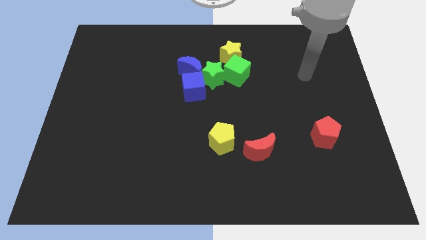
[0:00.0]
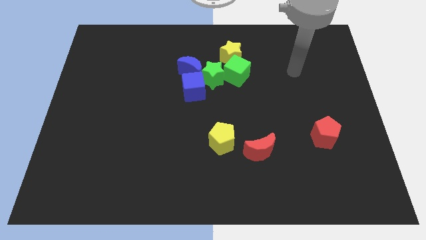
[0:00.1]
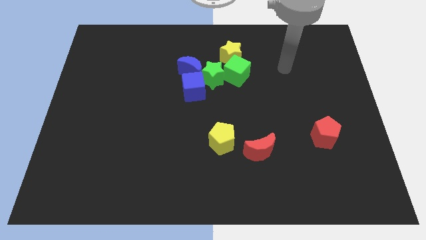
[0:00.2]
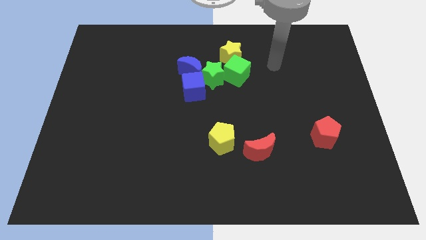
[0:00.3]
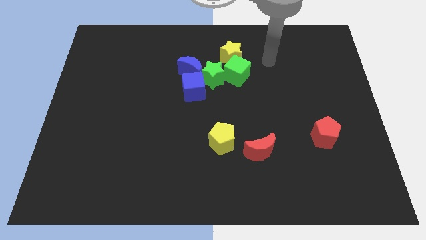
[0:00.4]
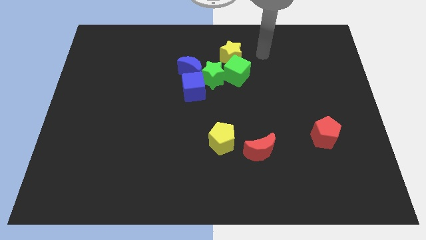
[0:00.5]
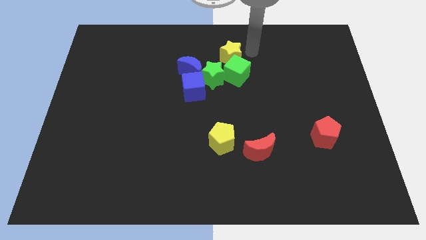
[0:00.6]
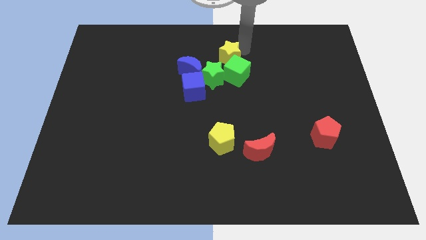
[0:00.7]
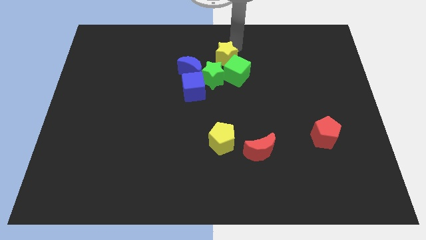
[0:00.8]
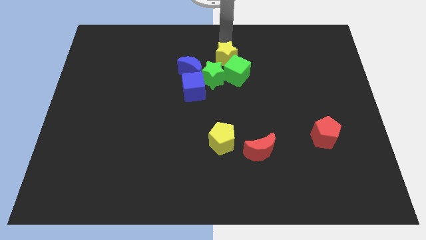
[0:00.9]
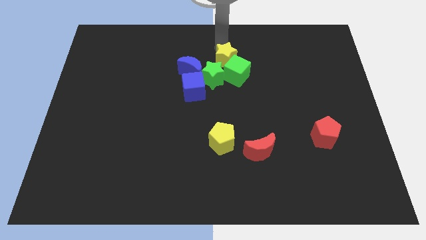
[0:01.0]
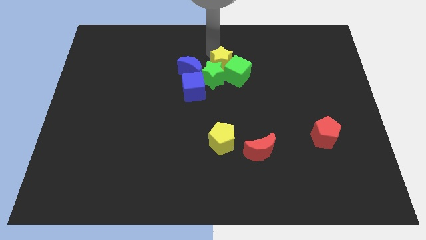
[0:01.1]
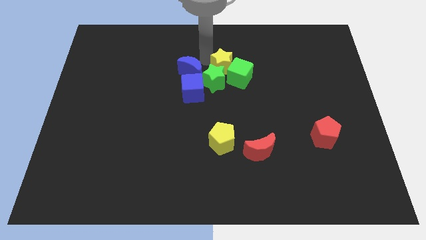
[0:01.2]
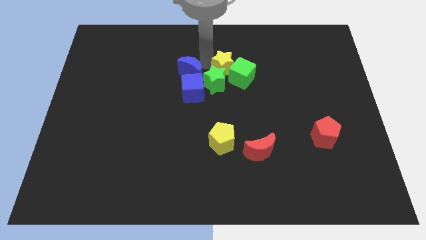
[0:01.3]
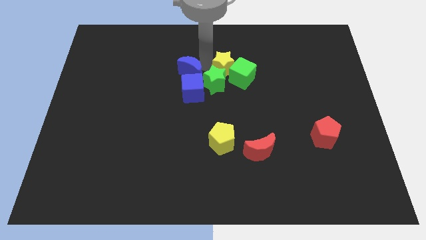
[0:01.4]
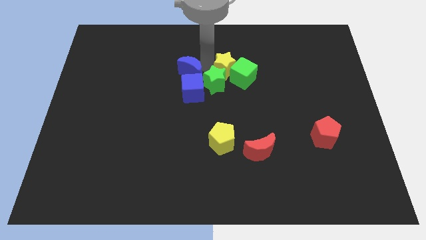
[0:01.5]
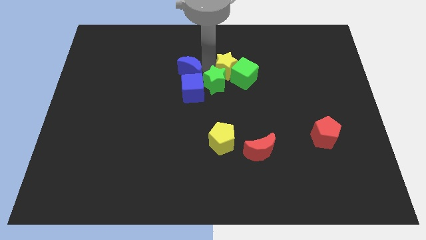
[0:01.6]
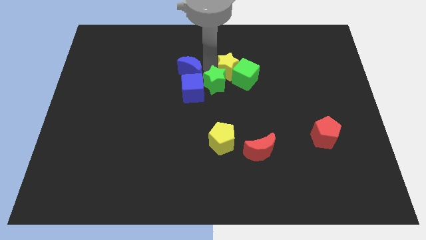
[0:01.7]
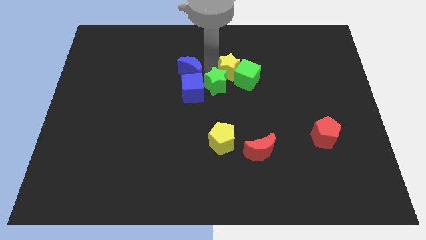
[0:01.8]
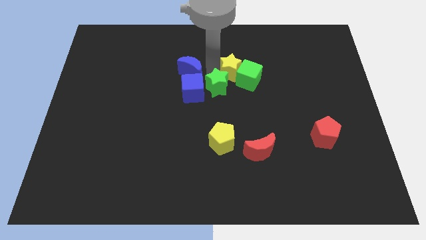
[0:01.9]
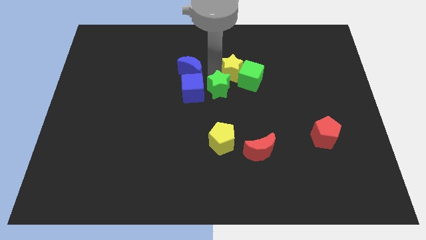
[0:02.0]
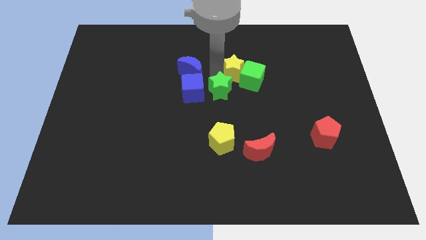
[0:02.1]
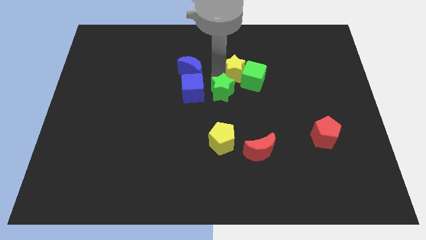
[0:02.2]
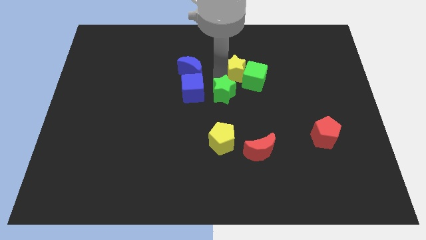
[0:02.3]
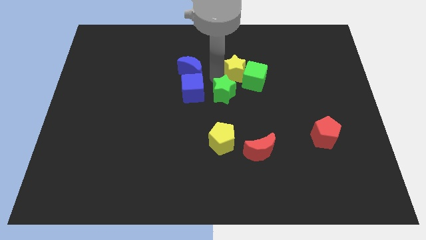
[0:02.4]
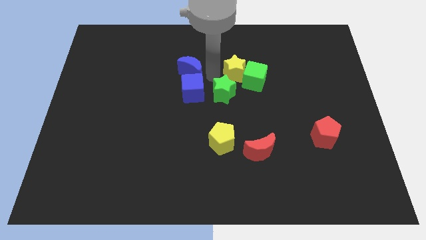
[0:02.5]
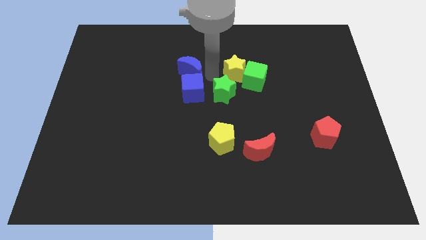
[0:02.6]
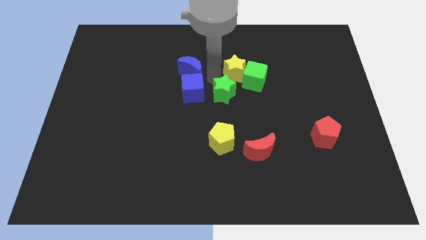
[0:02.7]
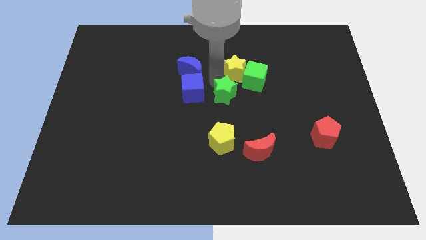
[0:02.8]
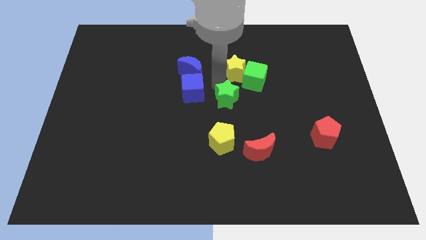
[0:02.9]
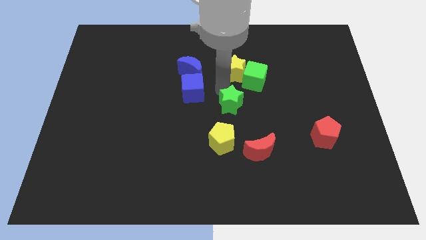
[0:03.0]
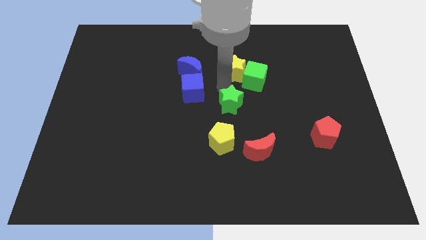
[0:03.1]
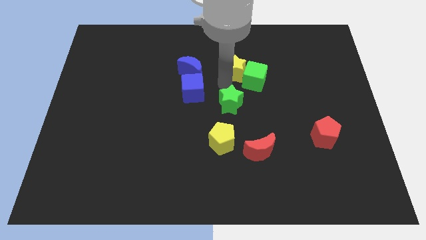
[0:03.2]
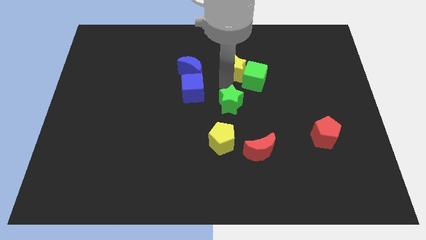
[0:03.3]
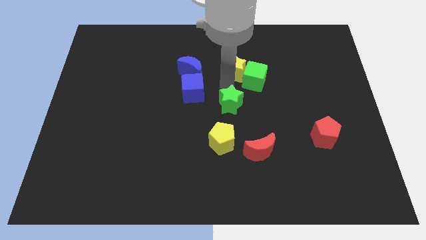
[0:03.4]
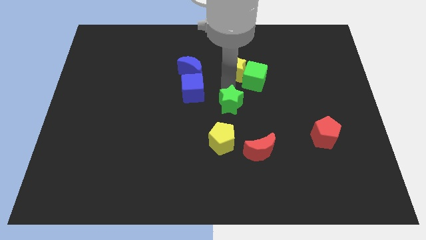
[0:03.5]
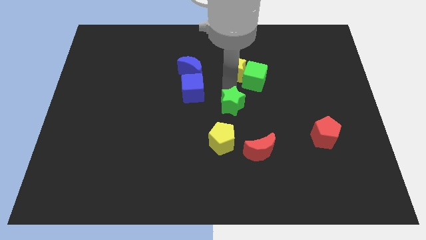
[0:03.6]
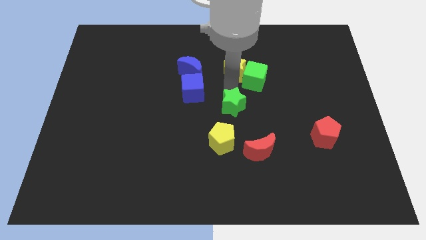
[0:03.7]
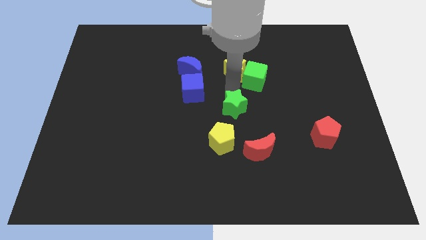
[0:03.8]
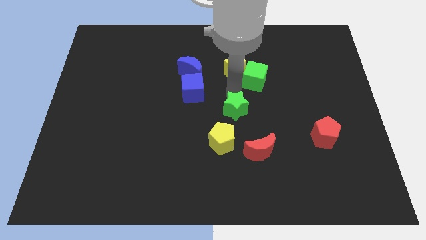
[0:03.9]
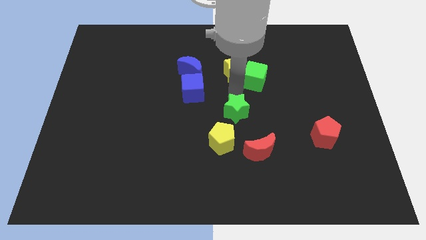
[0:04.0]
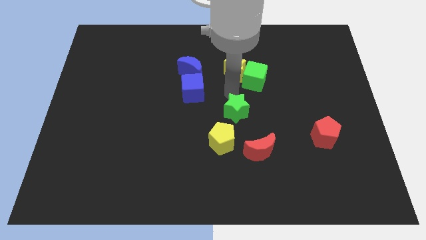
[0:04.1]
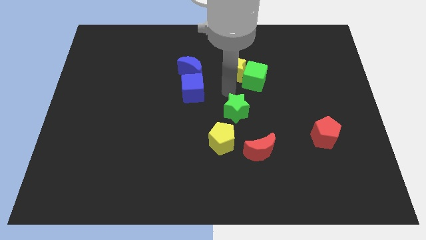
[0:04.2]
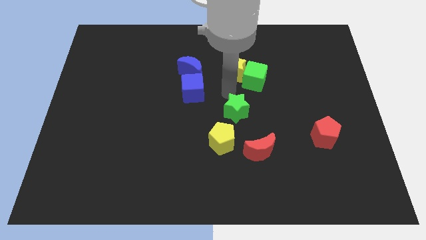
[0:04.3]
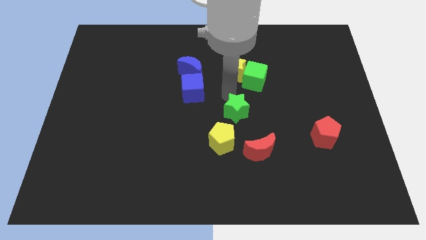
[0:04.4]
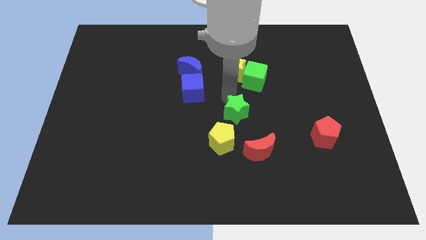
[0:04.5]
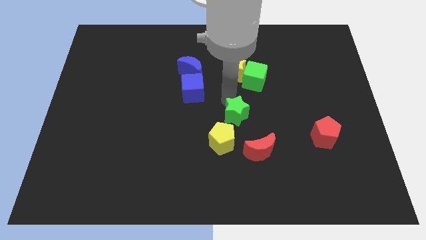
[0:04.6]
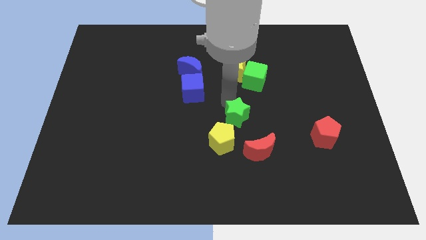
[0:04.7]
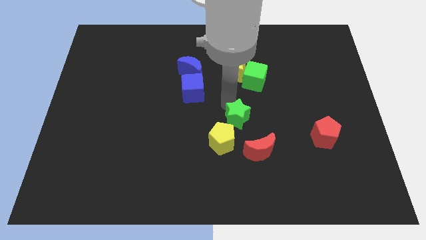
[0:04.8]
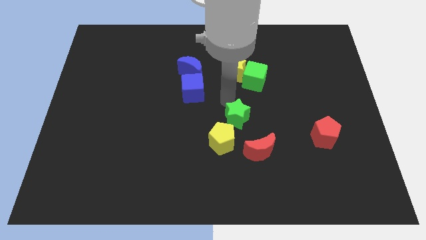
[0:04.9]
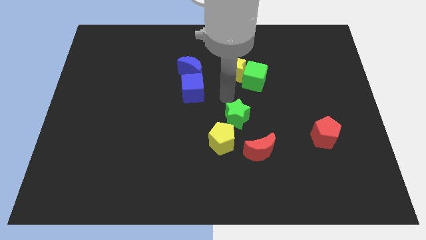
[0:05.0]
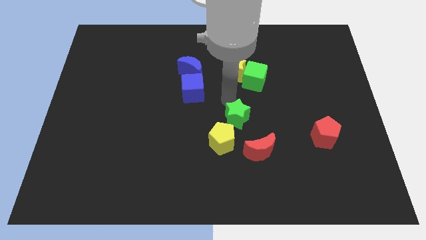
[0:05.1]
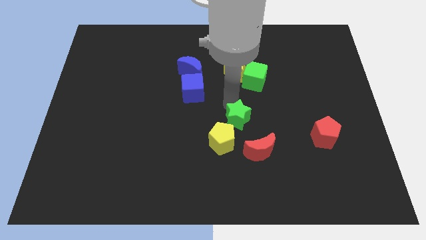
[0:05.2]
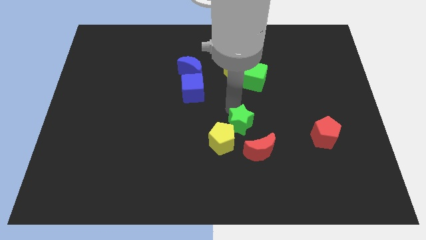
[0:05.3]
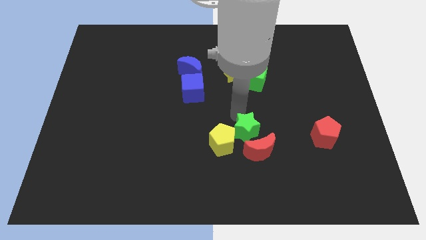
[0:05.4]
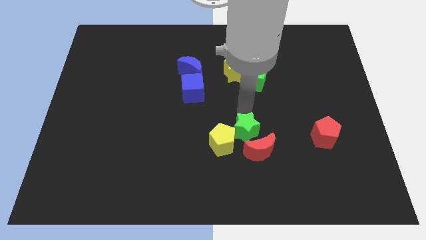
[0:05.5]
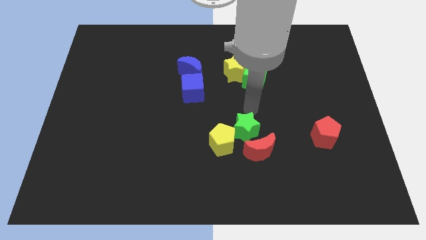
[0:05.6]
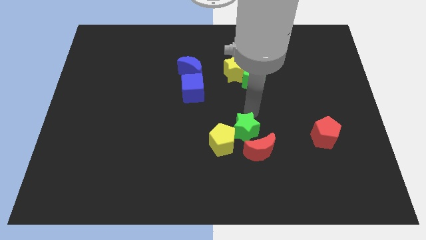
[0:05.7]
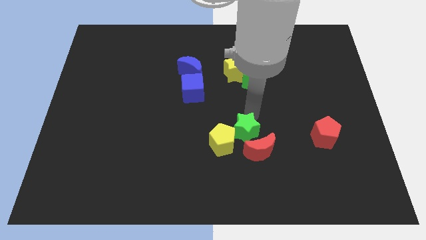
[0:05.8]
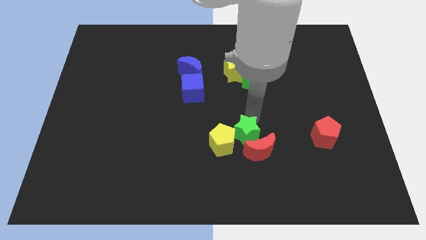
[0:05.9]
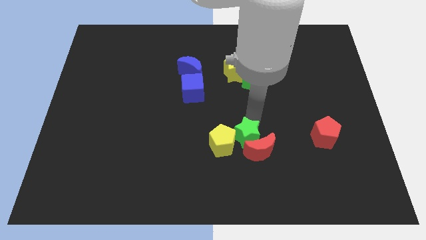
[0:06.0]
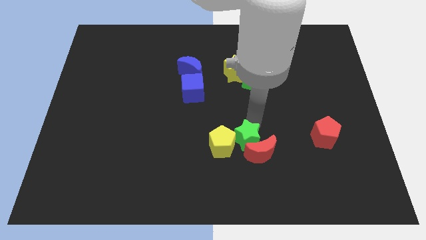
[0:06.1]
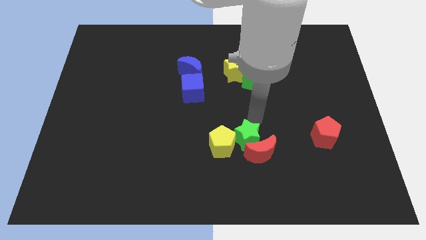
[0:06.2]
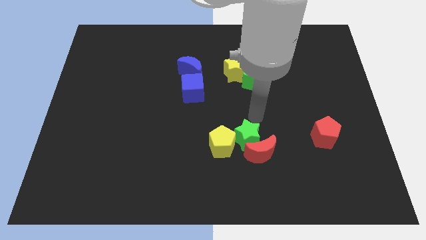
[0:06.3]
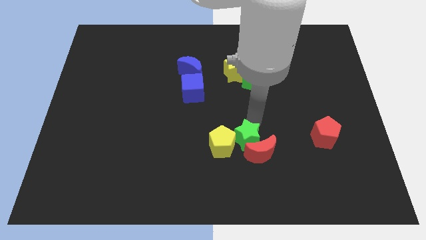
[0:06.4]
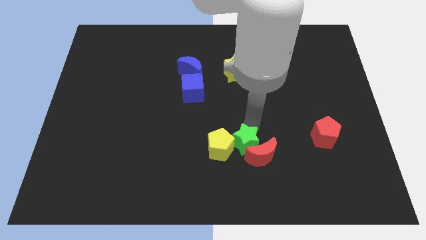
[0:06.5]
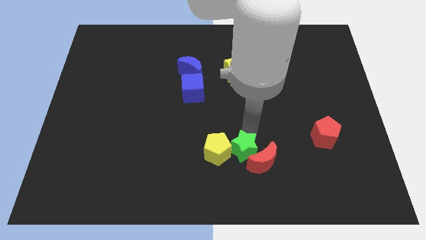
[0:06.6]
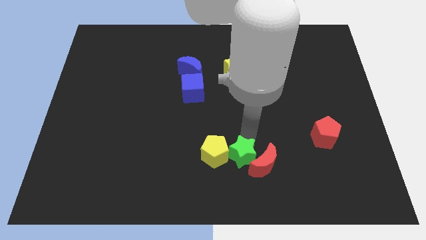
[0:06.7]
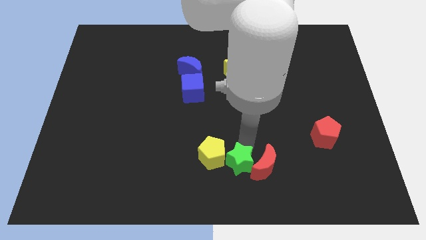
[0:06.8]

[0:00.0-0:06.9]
slide the green star to the bottom
